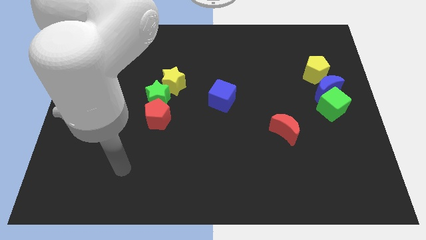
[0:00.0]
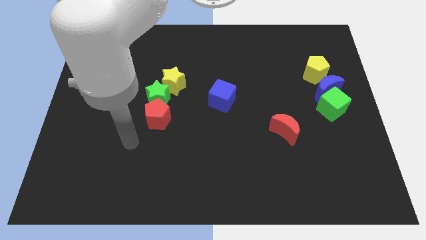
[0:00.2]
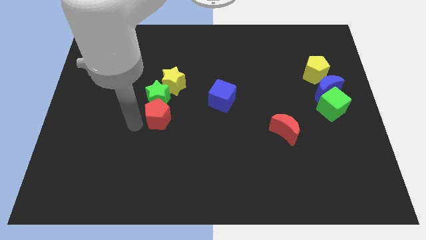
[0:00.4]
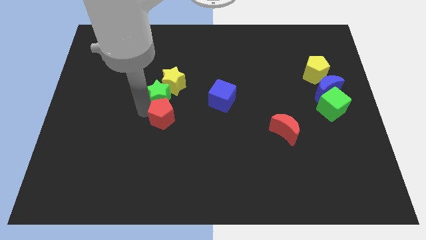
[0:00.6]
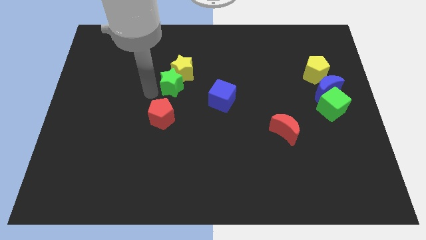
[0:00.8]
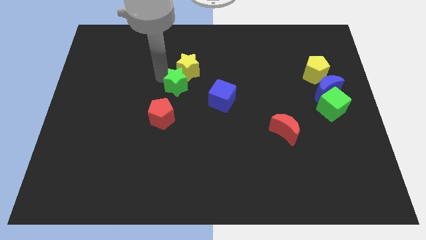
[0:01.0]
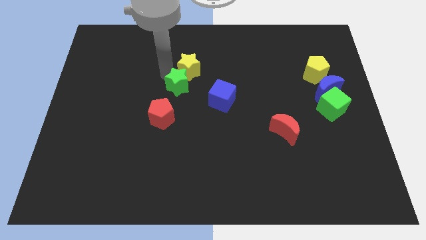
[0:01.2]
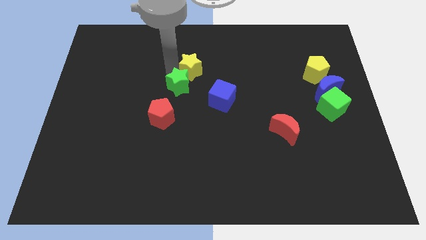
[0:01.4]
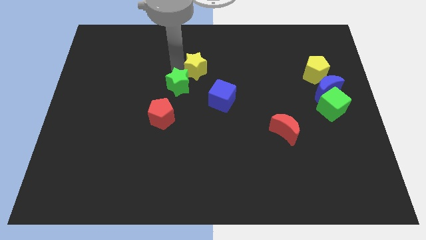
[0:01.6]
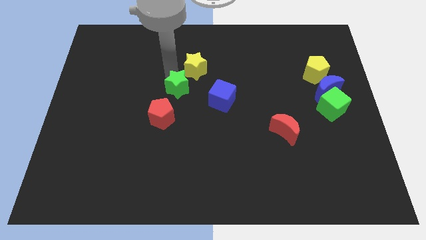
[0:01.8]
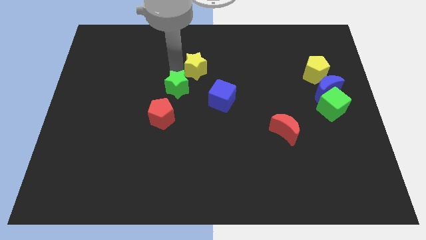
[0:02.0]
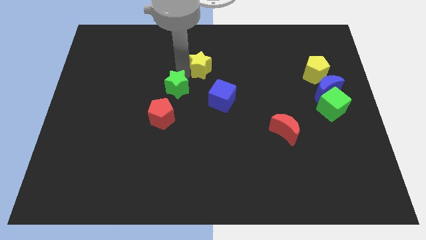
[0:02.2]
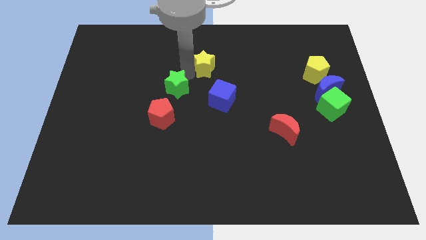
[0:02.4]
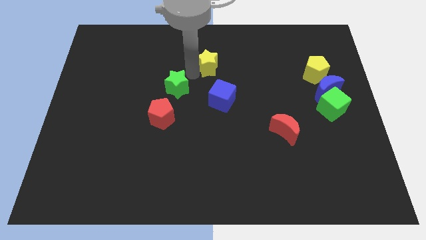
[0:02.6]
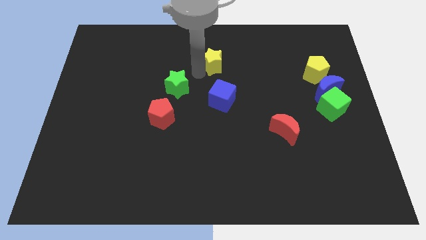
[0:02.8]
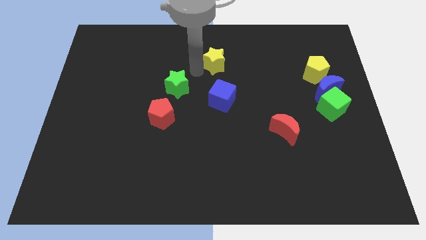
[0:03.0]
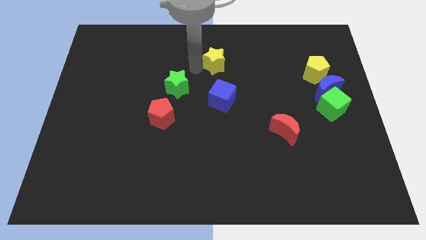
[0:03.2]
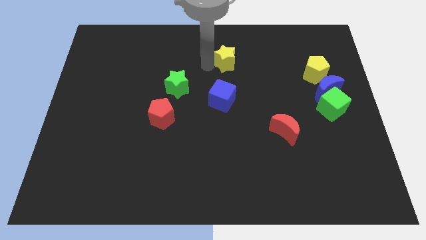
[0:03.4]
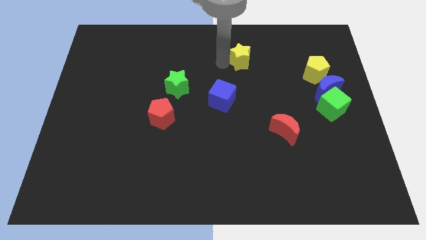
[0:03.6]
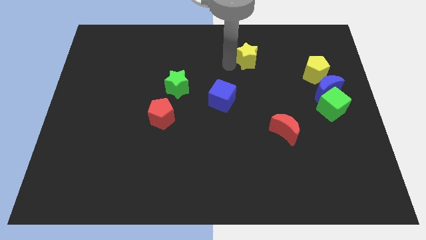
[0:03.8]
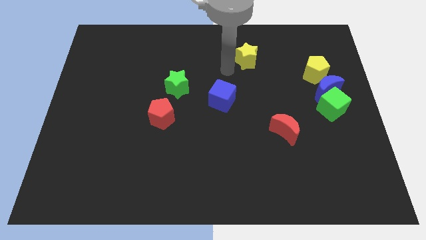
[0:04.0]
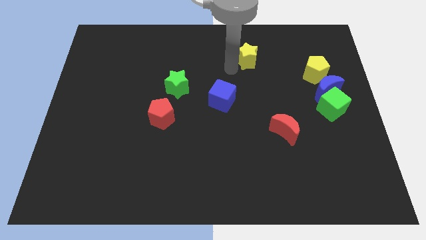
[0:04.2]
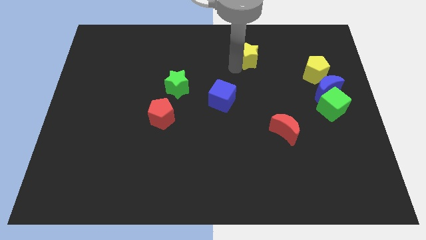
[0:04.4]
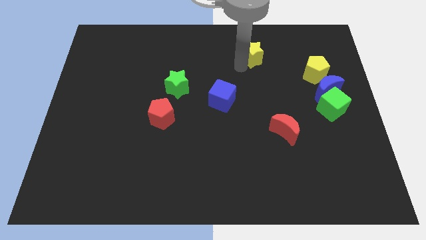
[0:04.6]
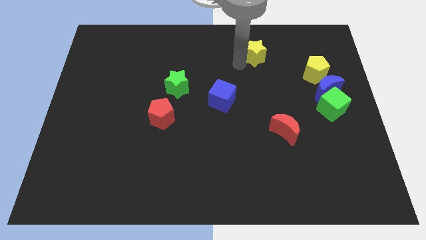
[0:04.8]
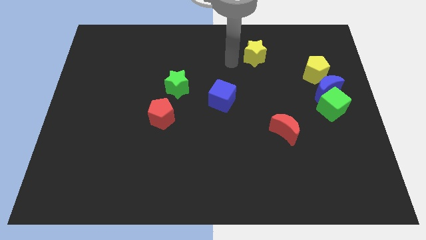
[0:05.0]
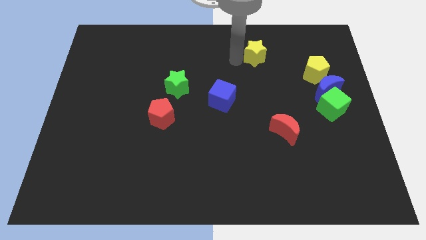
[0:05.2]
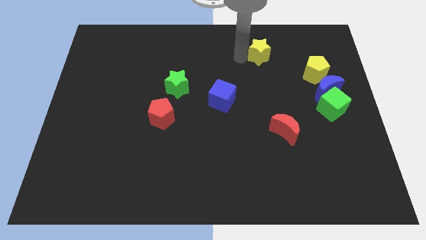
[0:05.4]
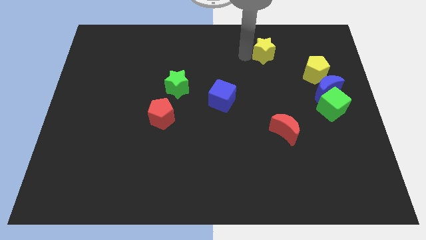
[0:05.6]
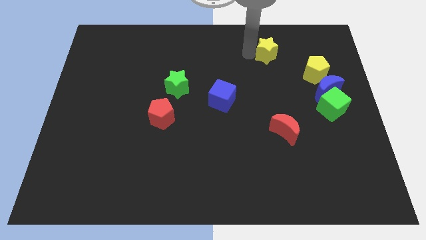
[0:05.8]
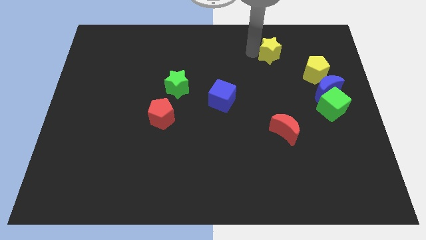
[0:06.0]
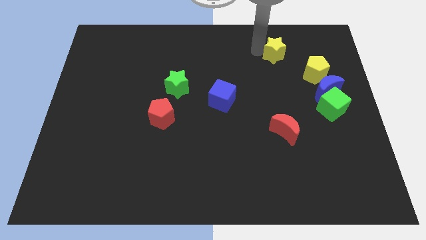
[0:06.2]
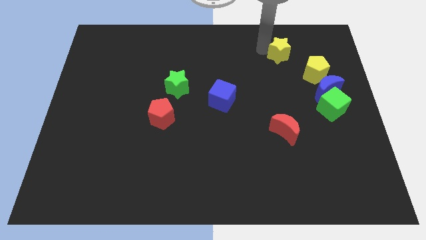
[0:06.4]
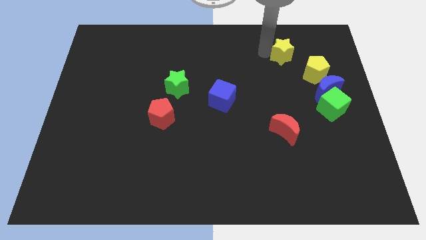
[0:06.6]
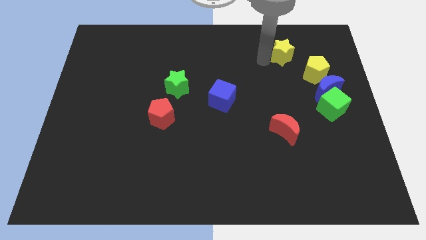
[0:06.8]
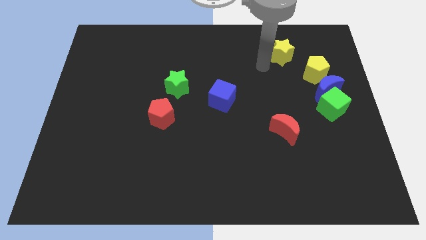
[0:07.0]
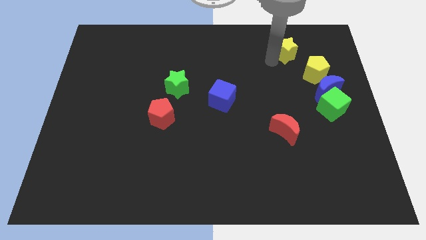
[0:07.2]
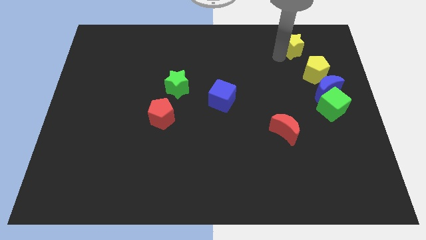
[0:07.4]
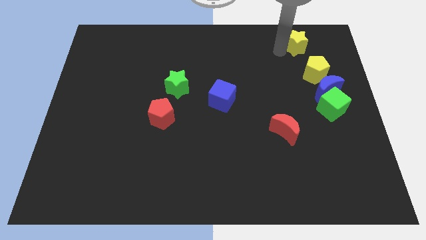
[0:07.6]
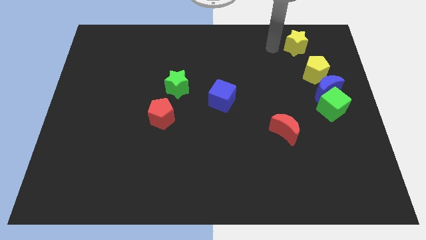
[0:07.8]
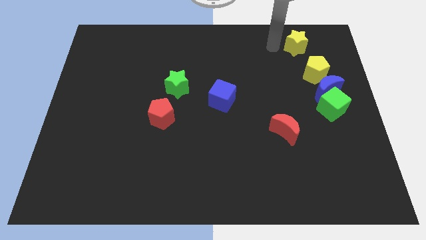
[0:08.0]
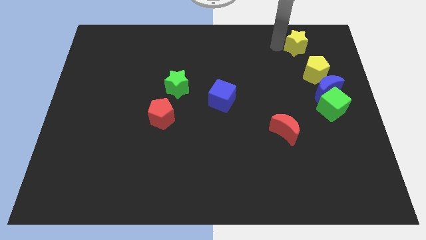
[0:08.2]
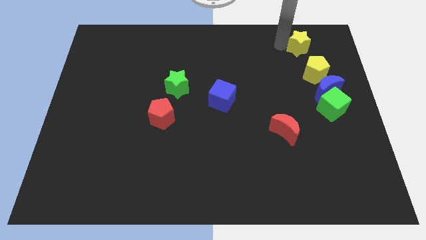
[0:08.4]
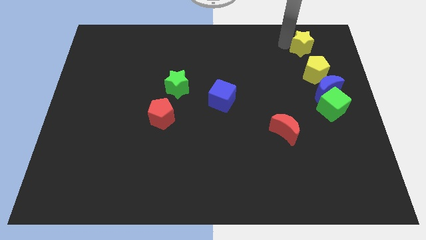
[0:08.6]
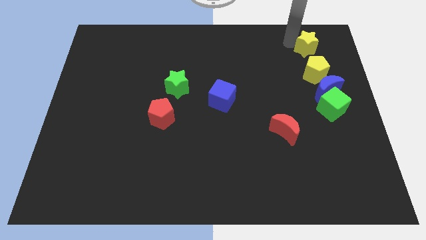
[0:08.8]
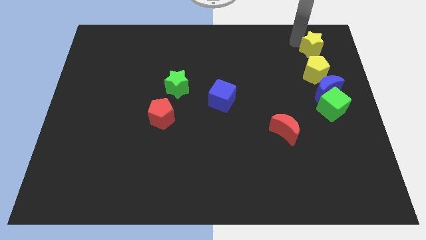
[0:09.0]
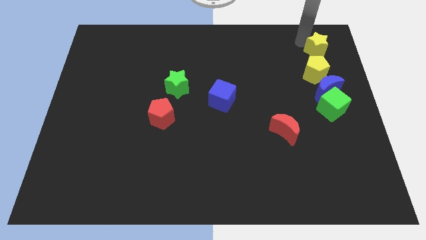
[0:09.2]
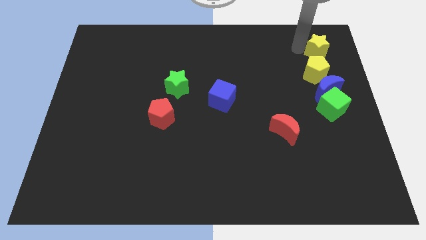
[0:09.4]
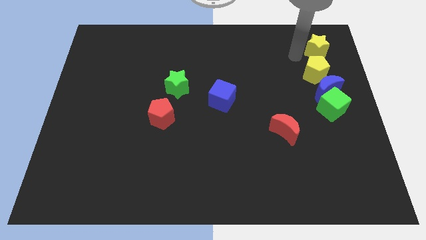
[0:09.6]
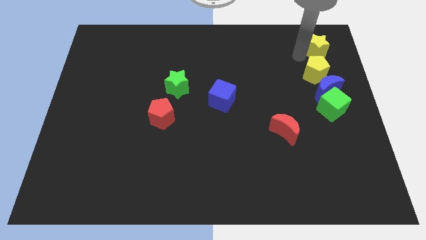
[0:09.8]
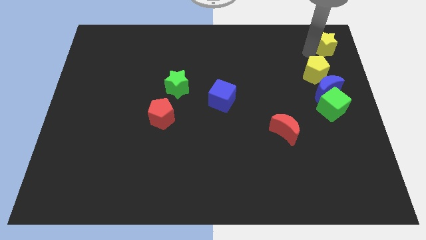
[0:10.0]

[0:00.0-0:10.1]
slide the yellow star to the top right of the board

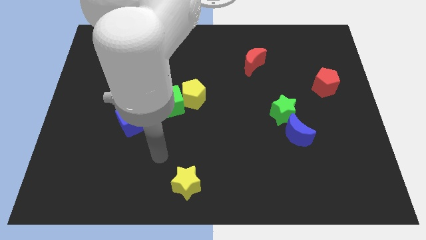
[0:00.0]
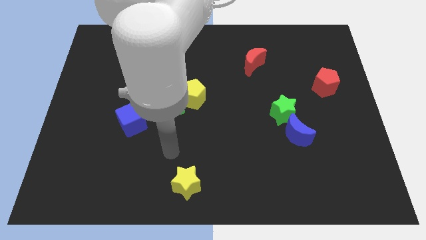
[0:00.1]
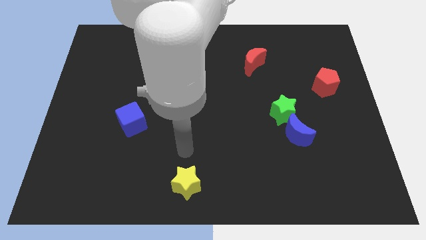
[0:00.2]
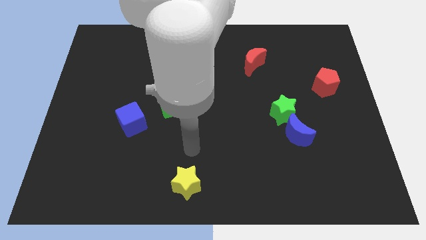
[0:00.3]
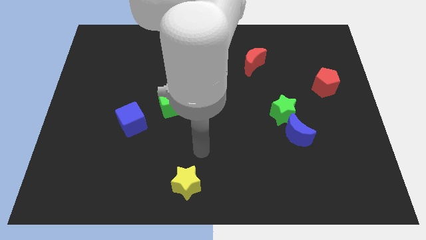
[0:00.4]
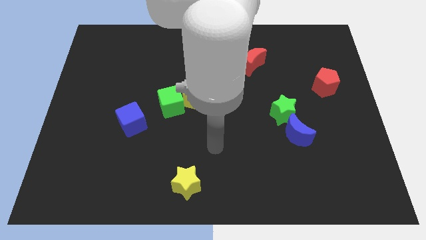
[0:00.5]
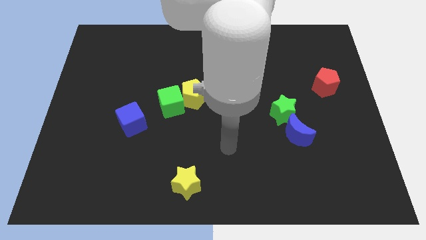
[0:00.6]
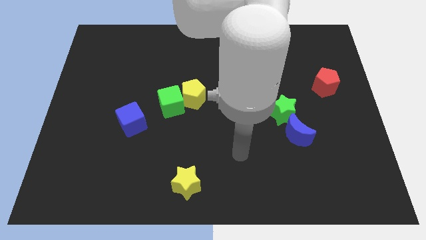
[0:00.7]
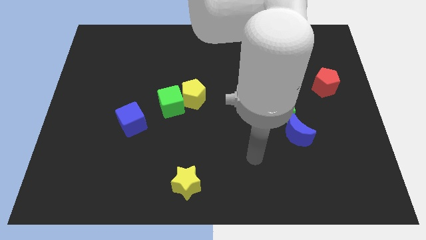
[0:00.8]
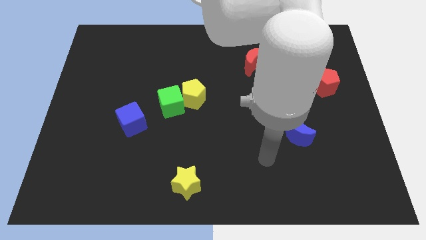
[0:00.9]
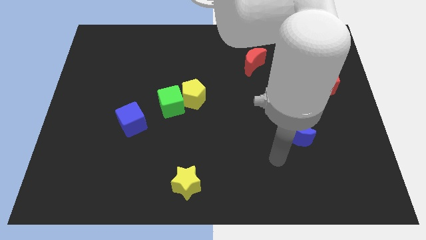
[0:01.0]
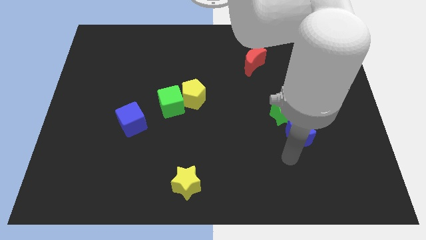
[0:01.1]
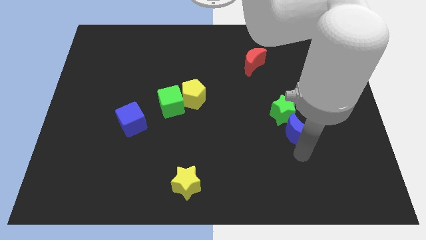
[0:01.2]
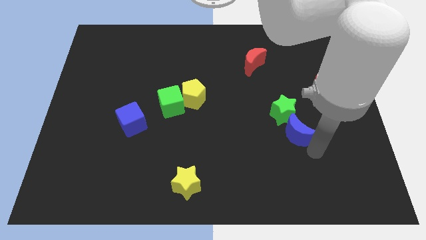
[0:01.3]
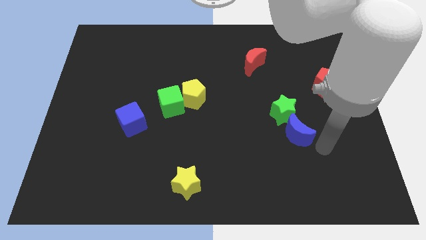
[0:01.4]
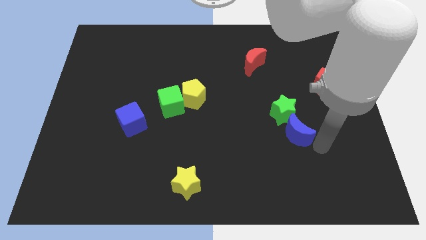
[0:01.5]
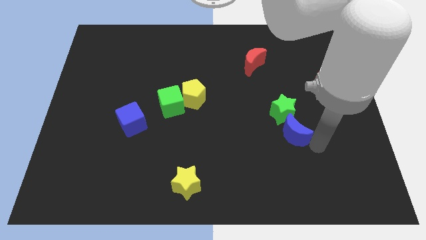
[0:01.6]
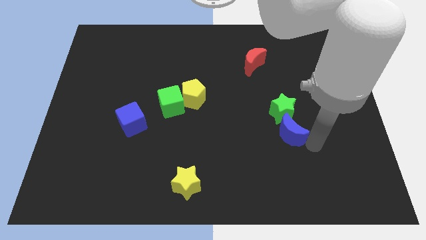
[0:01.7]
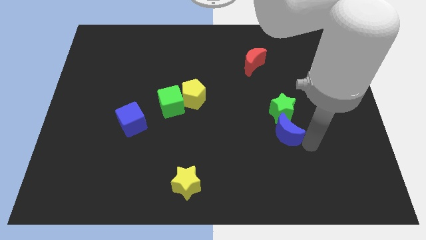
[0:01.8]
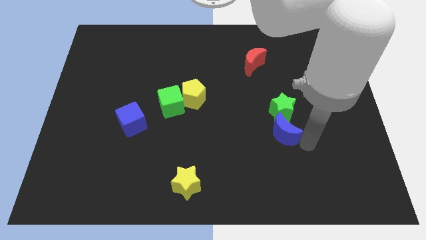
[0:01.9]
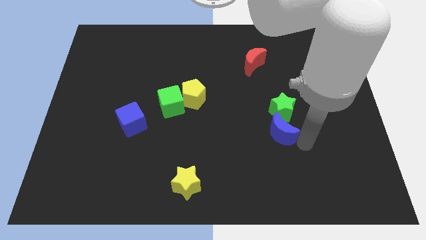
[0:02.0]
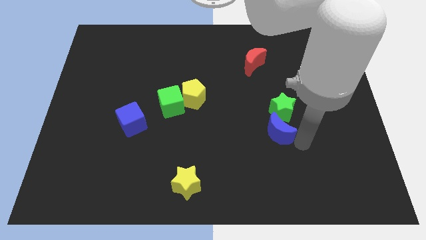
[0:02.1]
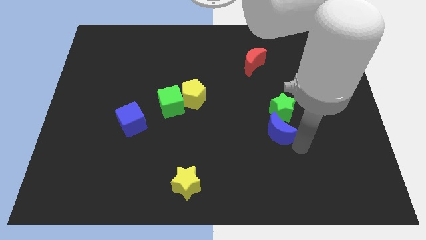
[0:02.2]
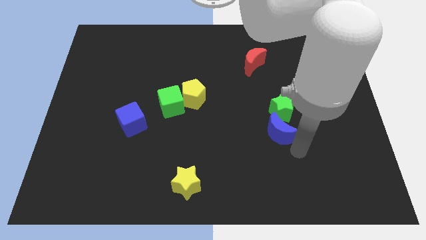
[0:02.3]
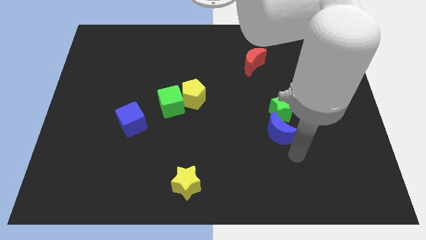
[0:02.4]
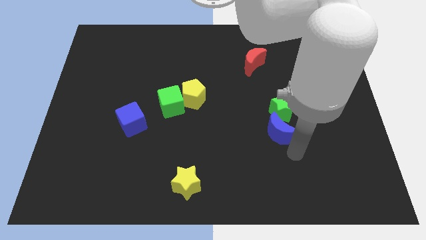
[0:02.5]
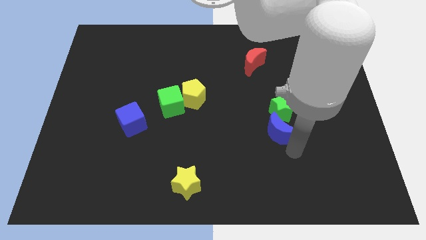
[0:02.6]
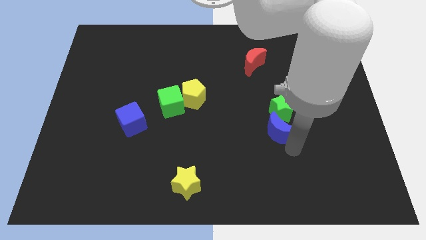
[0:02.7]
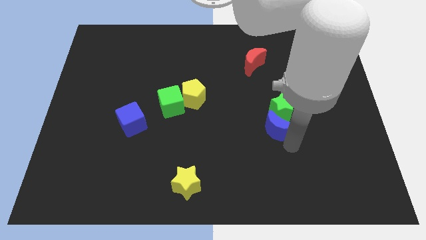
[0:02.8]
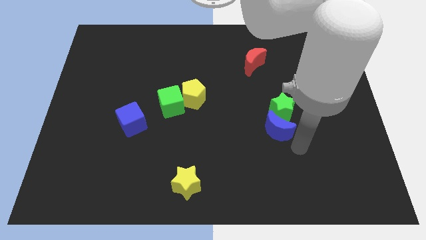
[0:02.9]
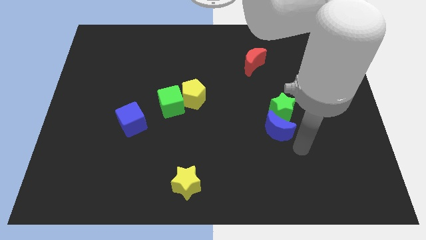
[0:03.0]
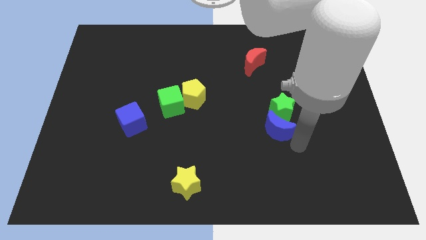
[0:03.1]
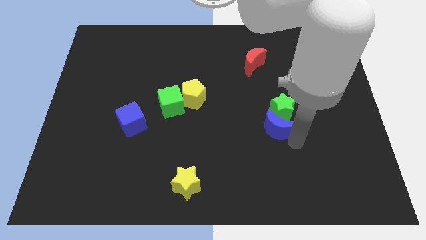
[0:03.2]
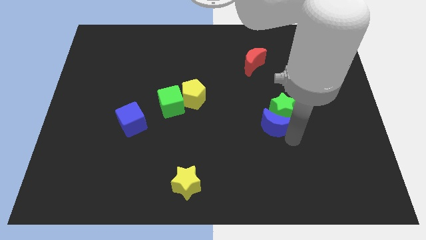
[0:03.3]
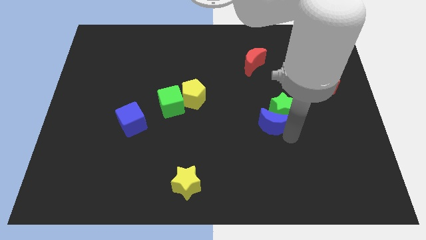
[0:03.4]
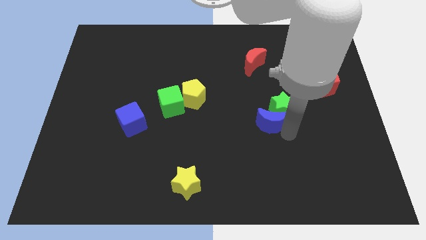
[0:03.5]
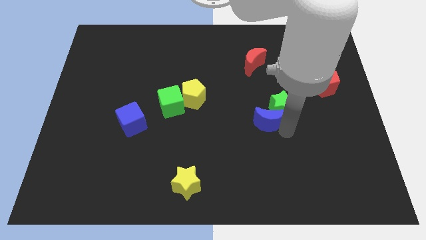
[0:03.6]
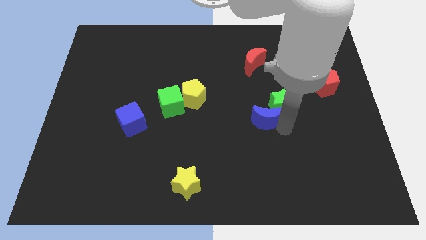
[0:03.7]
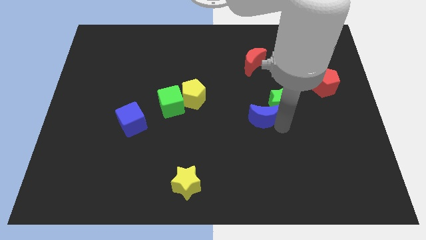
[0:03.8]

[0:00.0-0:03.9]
slide the blue moon to the center
